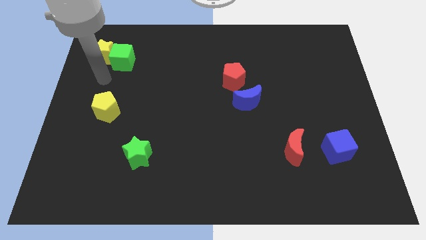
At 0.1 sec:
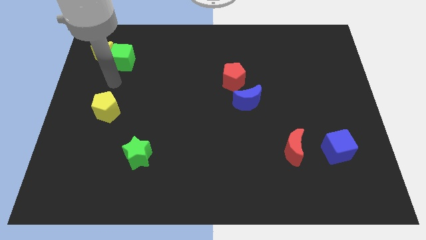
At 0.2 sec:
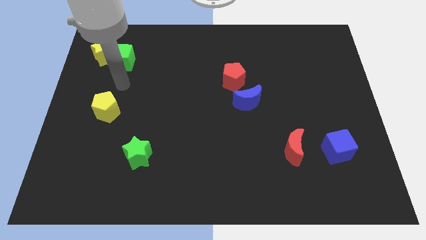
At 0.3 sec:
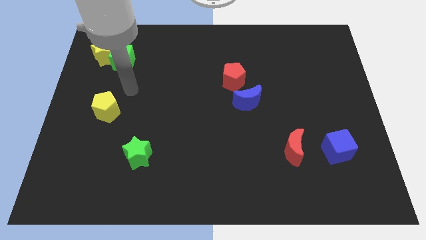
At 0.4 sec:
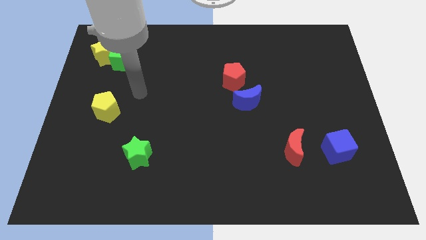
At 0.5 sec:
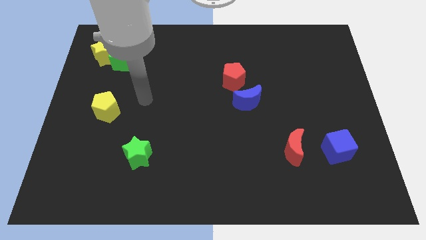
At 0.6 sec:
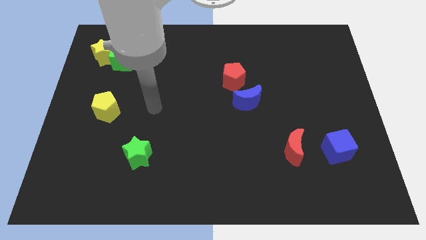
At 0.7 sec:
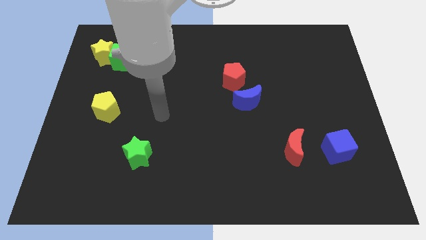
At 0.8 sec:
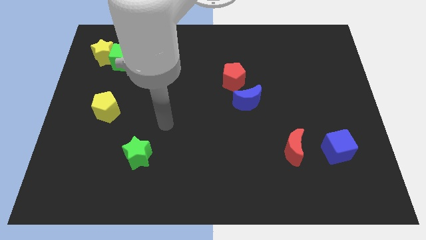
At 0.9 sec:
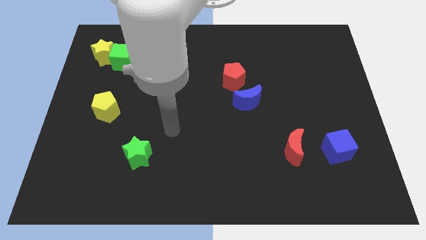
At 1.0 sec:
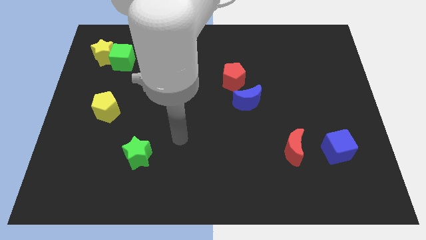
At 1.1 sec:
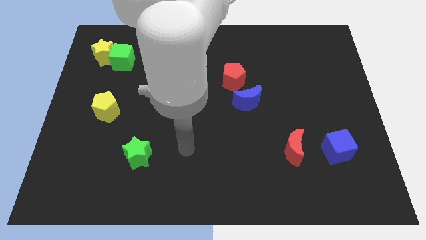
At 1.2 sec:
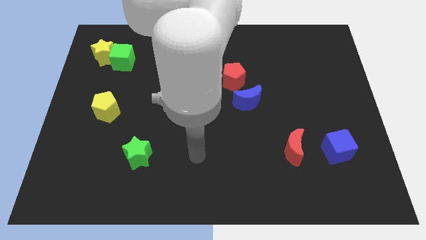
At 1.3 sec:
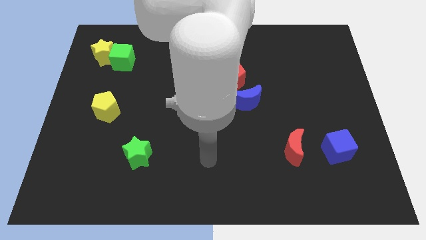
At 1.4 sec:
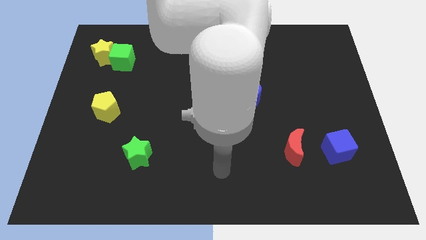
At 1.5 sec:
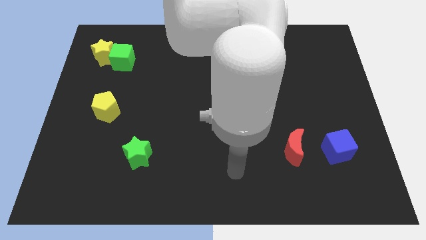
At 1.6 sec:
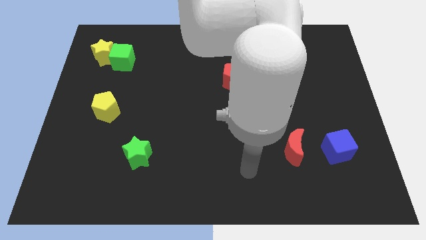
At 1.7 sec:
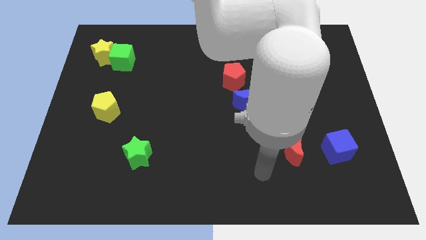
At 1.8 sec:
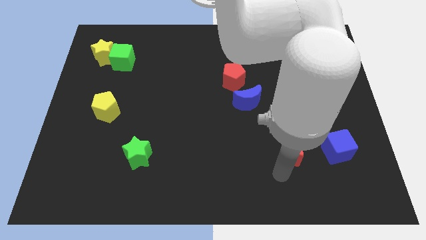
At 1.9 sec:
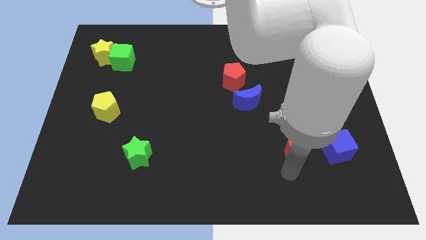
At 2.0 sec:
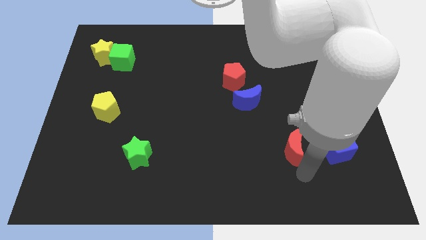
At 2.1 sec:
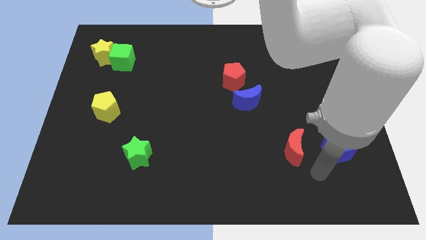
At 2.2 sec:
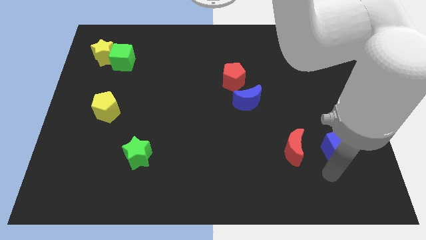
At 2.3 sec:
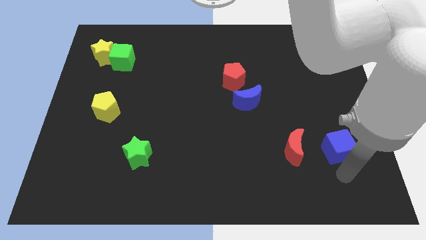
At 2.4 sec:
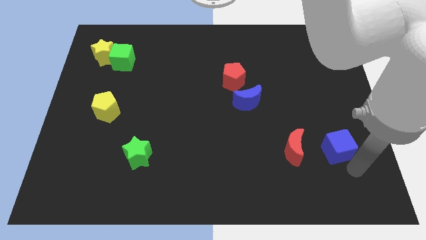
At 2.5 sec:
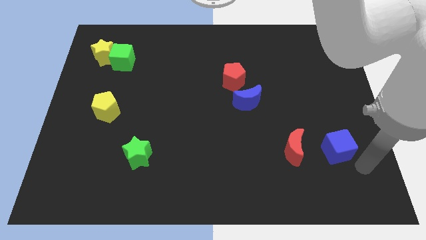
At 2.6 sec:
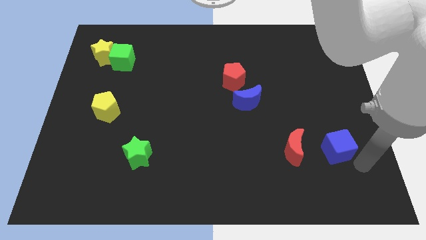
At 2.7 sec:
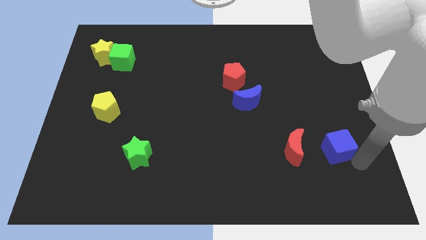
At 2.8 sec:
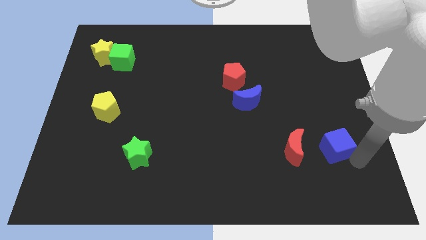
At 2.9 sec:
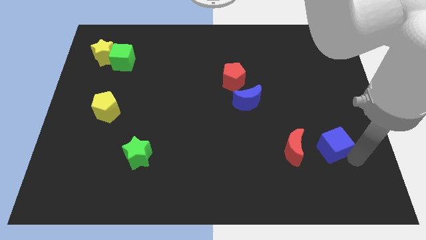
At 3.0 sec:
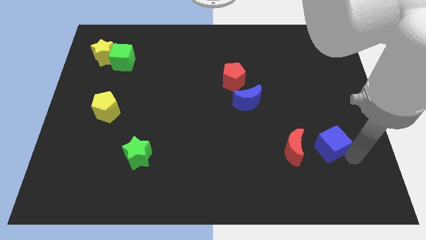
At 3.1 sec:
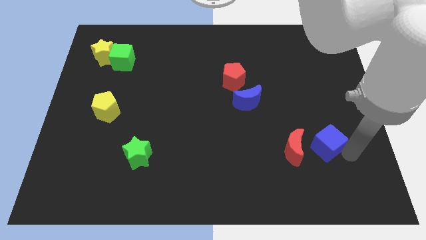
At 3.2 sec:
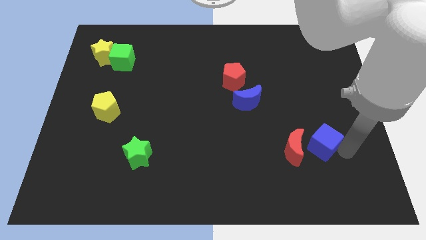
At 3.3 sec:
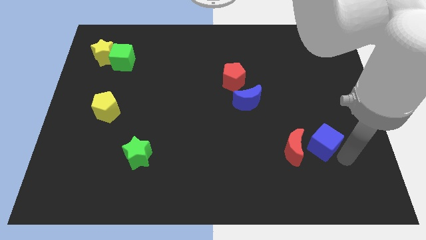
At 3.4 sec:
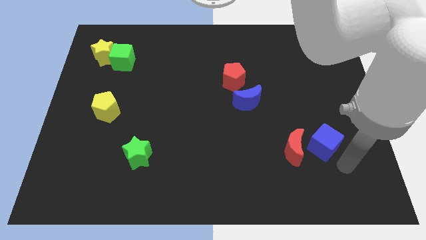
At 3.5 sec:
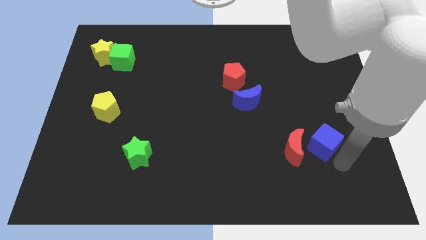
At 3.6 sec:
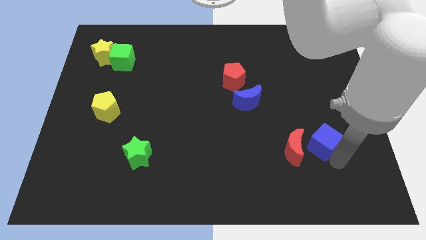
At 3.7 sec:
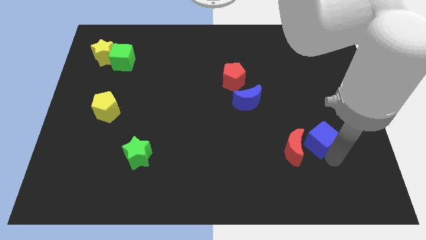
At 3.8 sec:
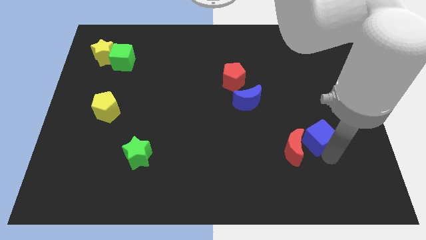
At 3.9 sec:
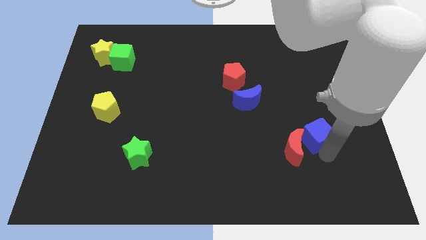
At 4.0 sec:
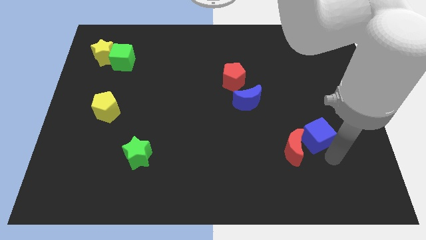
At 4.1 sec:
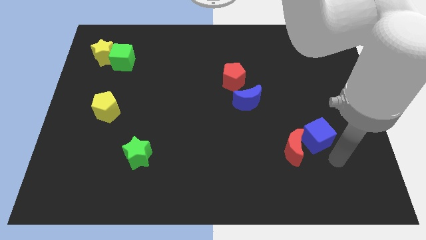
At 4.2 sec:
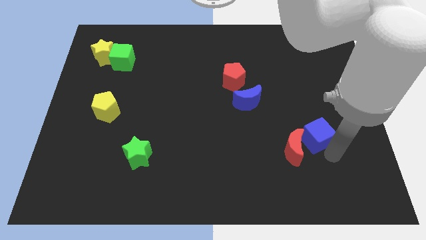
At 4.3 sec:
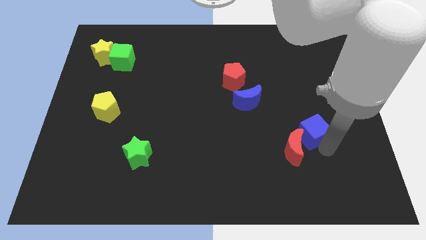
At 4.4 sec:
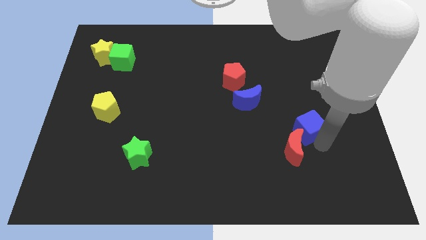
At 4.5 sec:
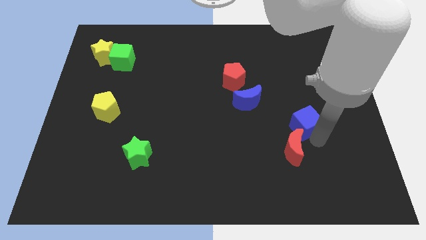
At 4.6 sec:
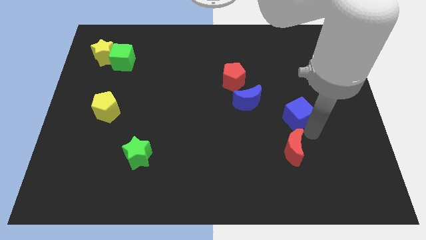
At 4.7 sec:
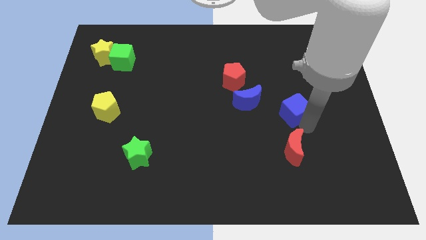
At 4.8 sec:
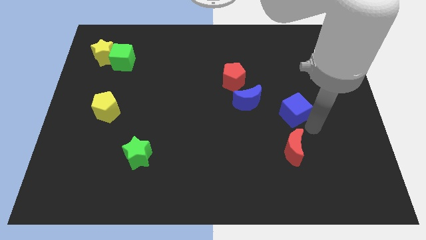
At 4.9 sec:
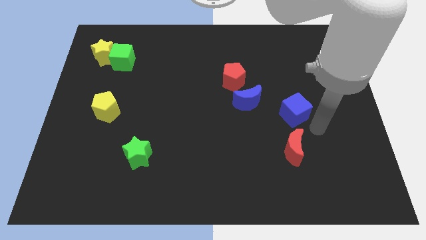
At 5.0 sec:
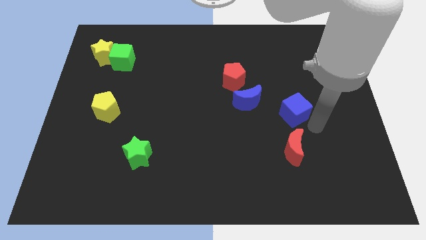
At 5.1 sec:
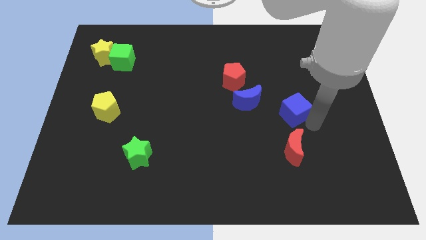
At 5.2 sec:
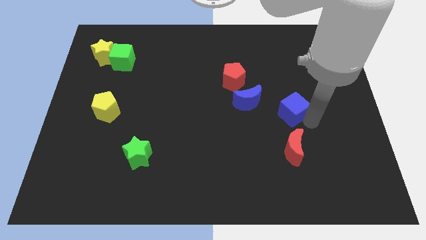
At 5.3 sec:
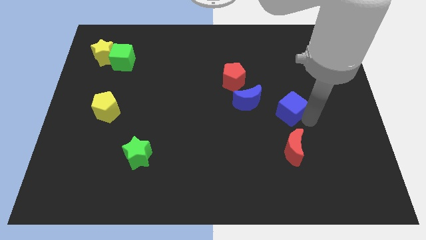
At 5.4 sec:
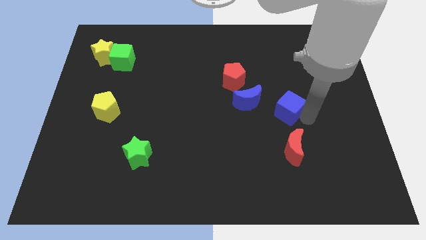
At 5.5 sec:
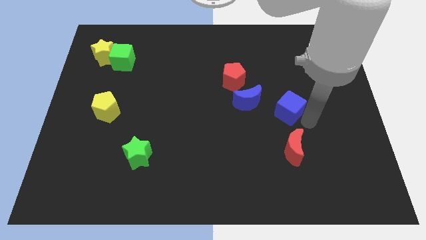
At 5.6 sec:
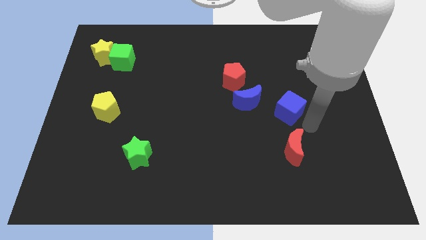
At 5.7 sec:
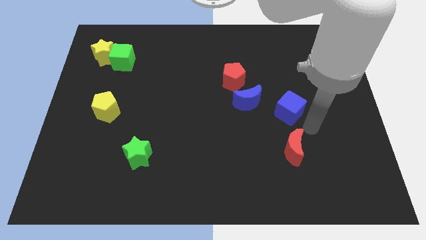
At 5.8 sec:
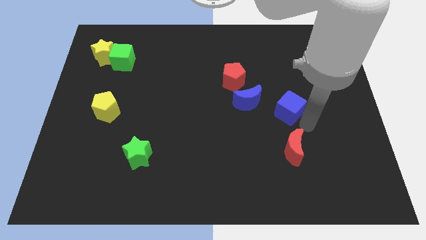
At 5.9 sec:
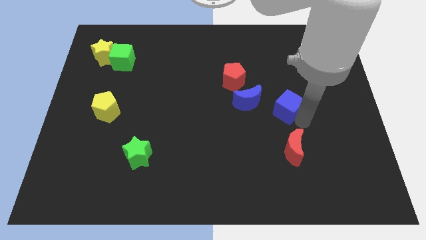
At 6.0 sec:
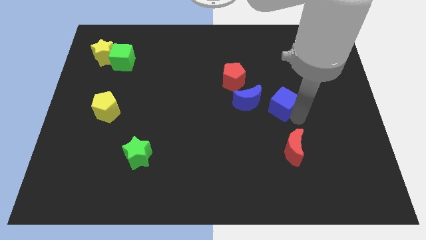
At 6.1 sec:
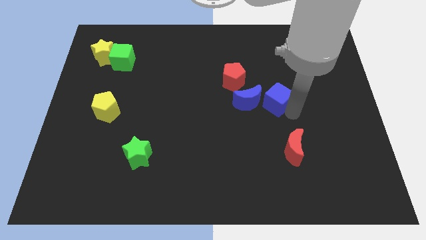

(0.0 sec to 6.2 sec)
slide the blue cube to the bottom right of the red pentagon
